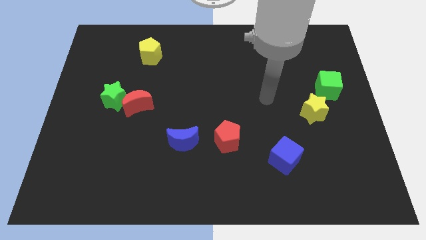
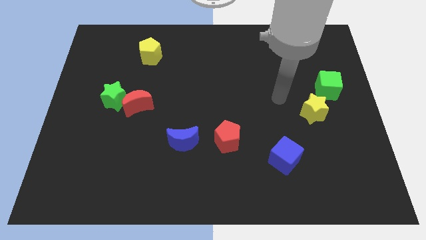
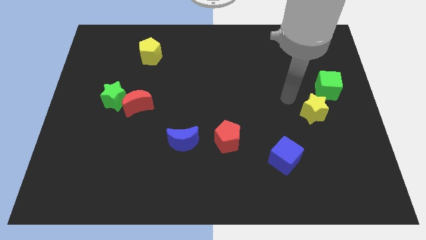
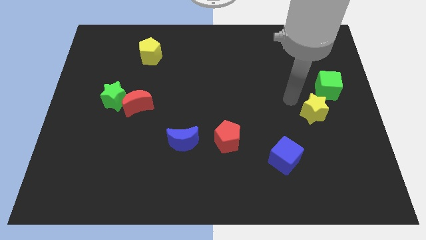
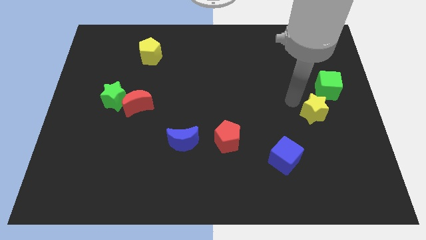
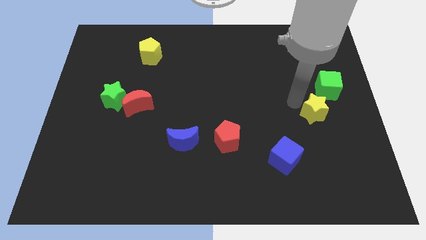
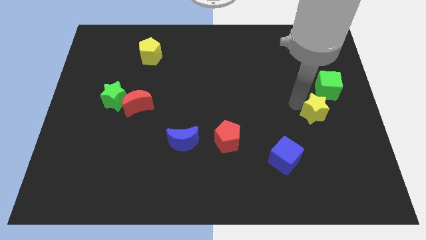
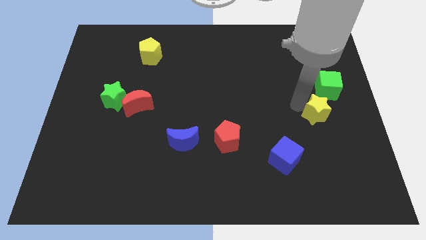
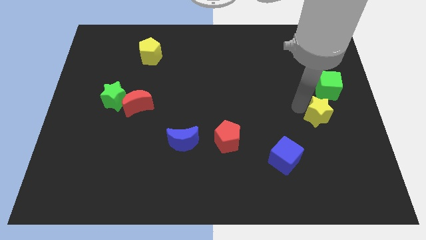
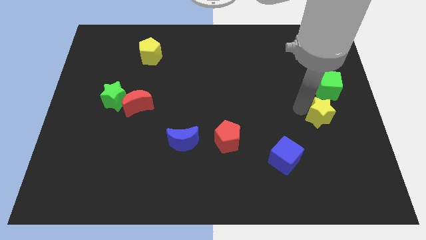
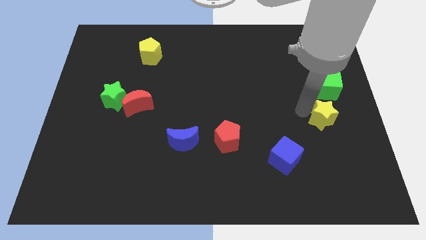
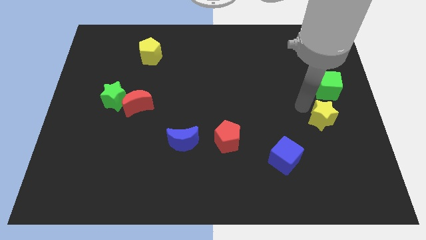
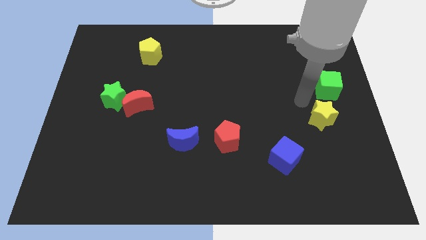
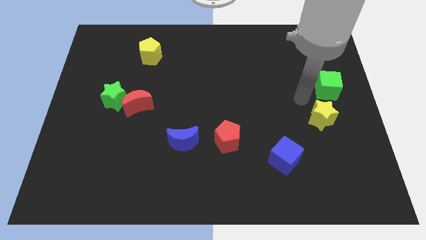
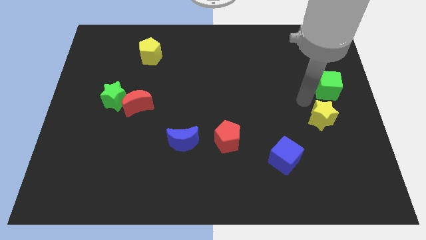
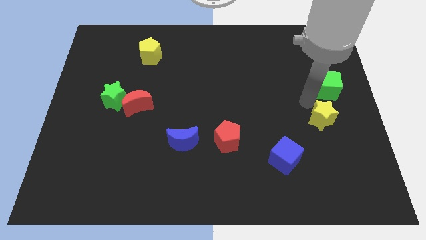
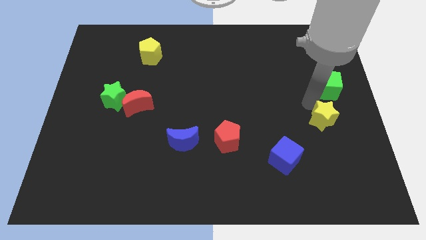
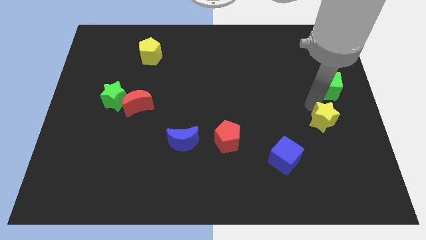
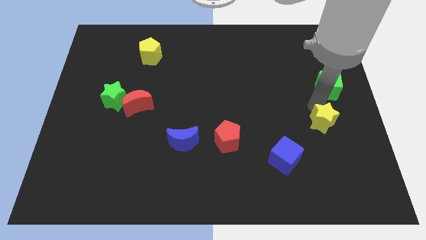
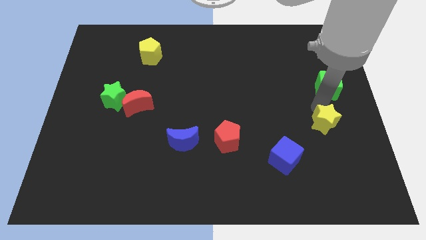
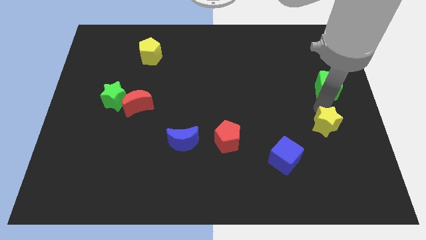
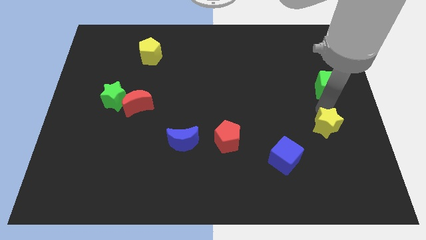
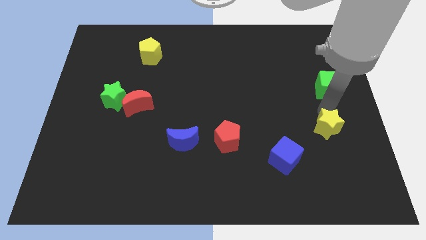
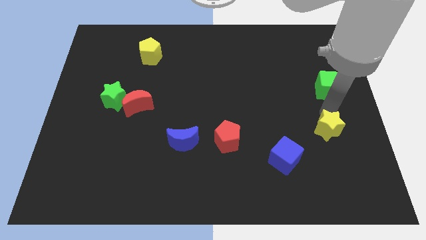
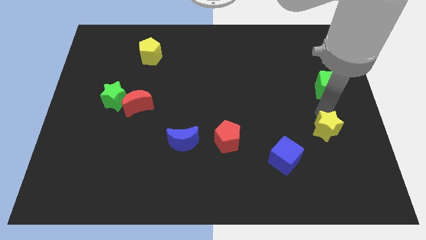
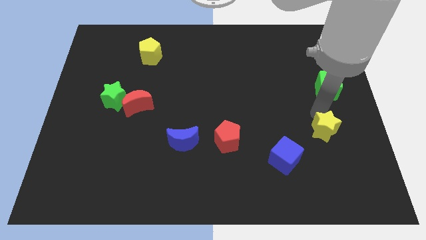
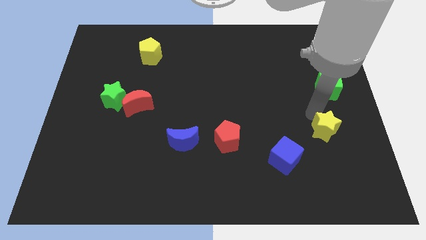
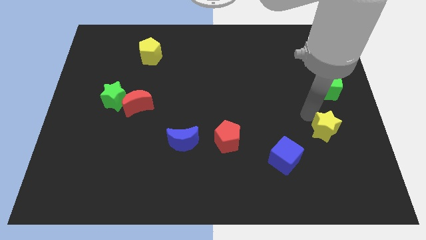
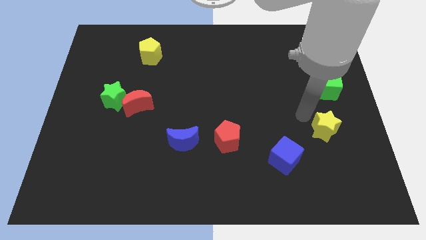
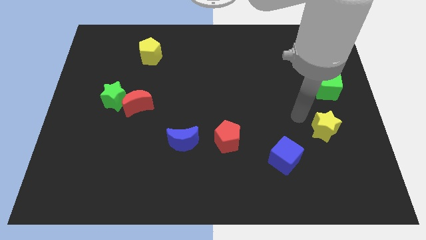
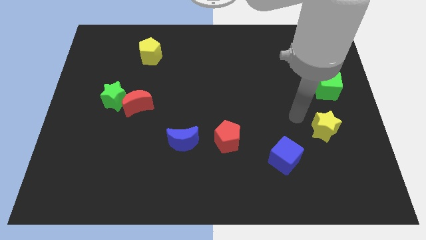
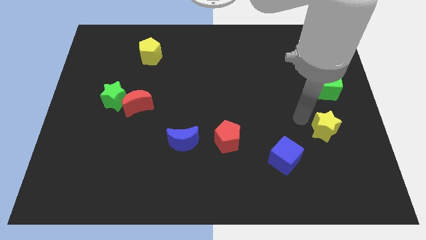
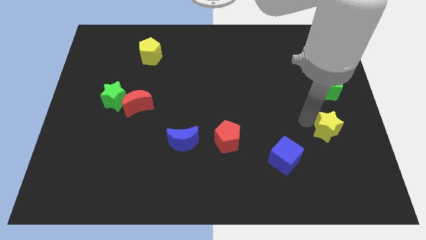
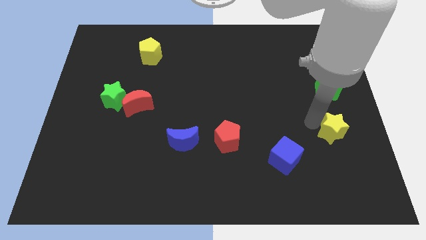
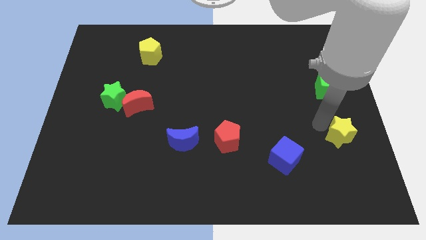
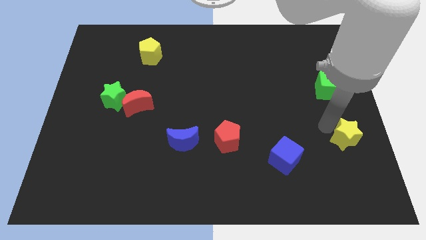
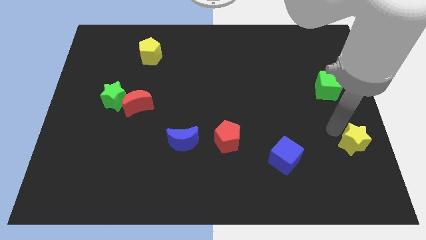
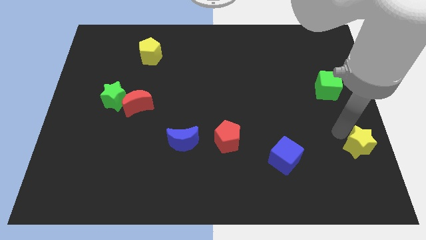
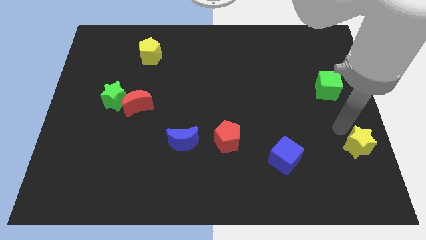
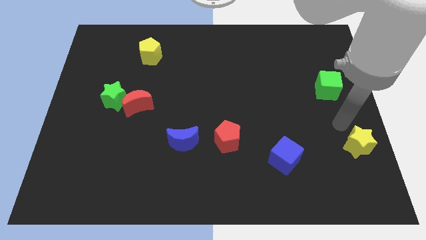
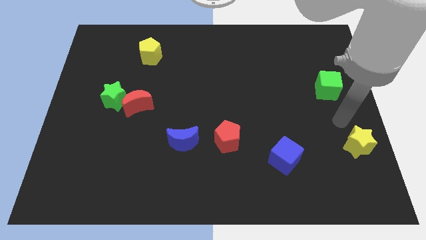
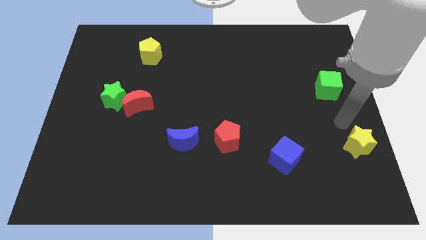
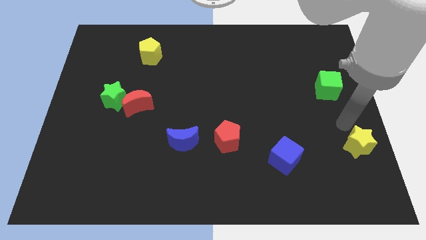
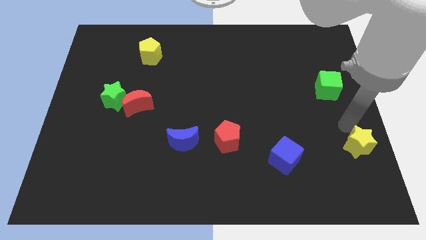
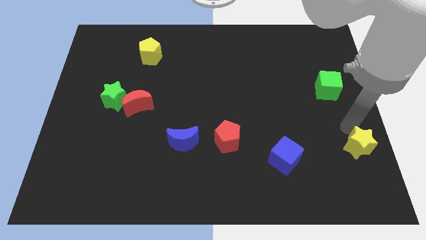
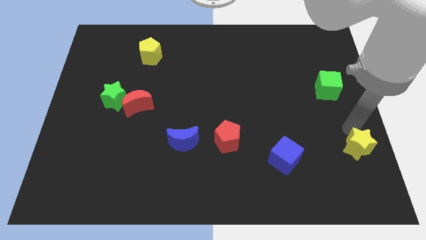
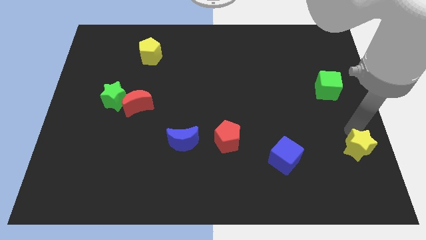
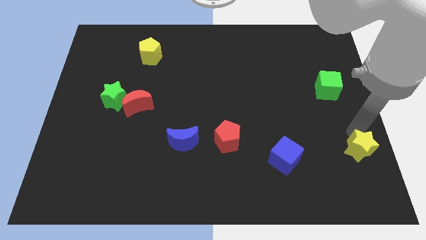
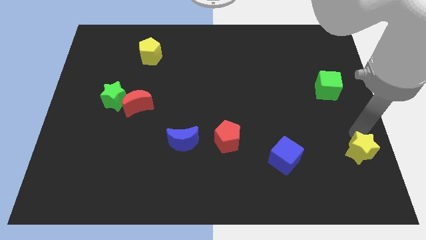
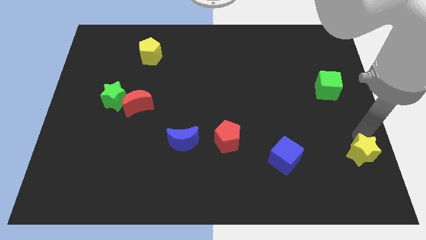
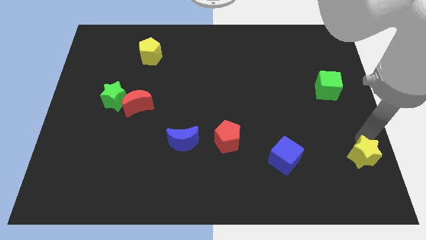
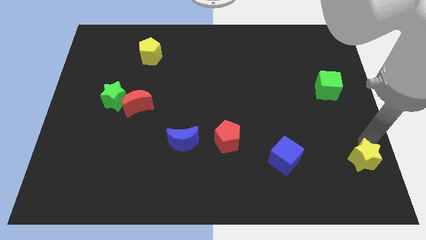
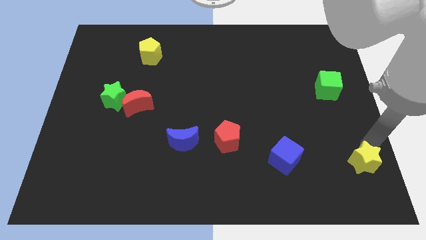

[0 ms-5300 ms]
slide the yellow star to the lower right corner

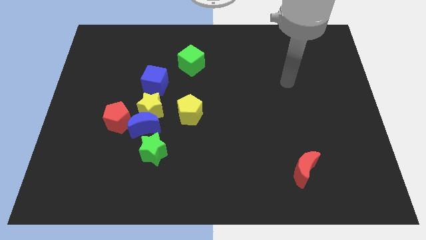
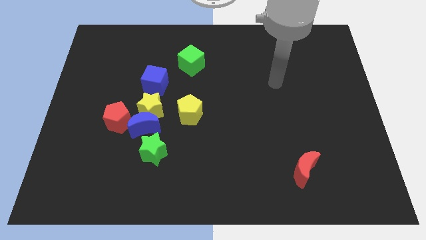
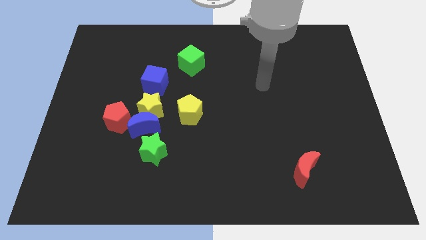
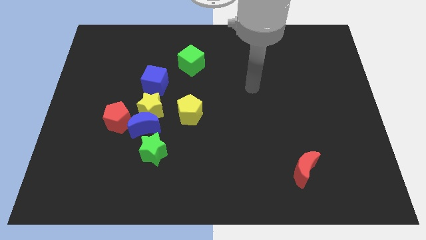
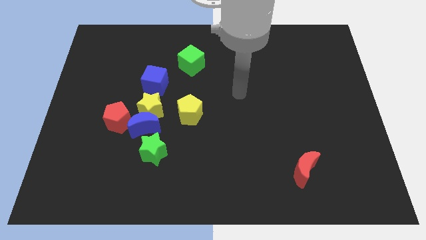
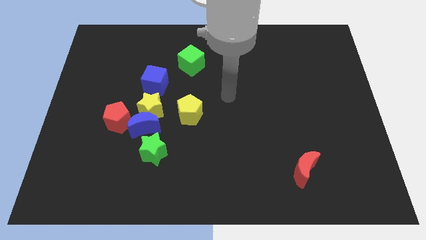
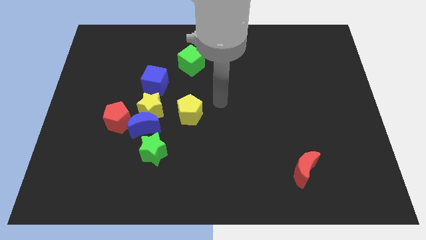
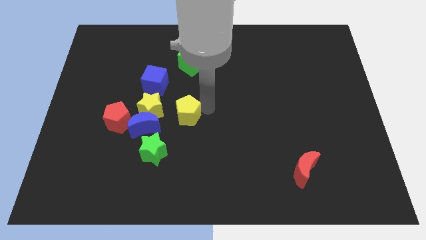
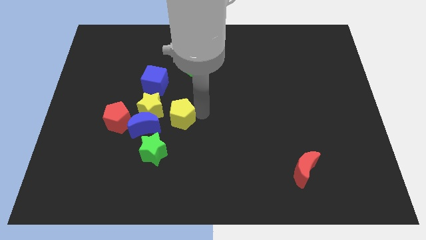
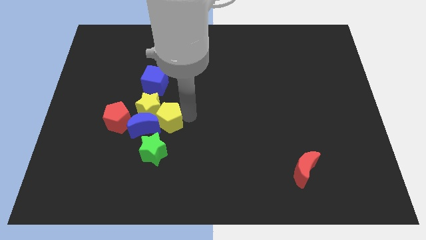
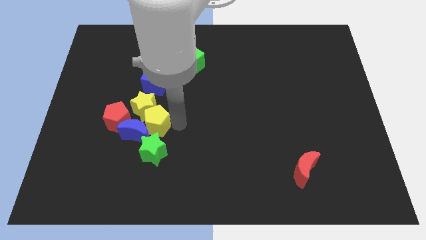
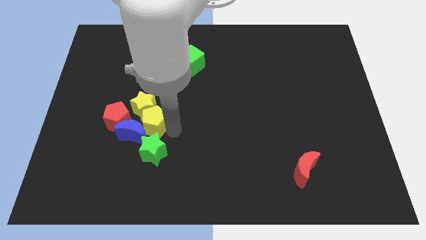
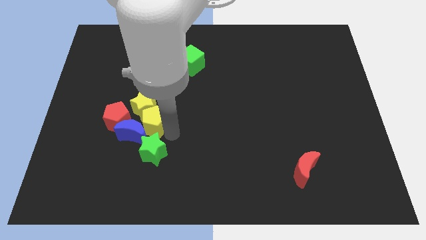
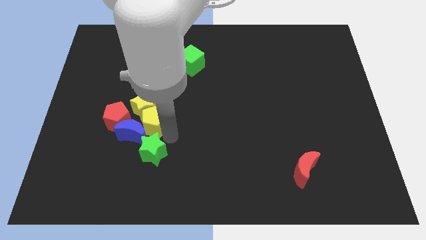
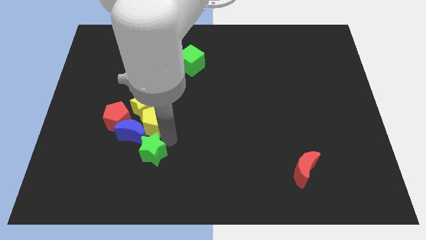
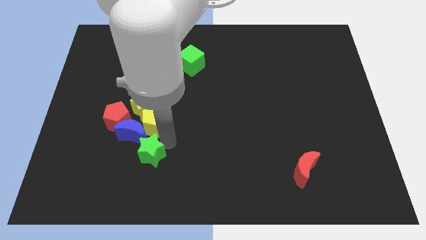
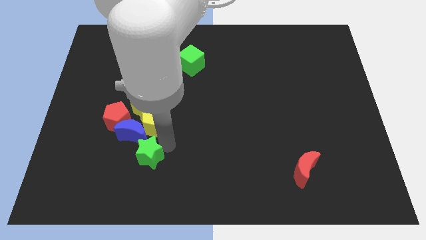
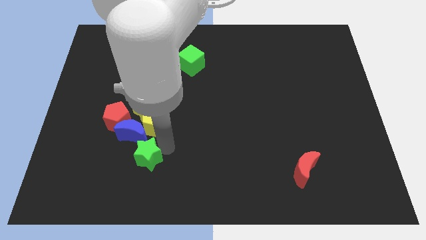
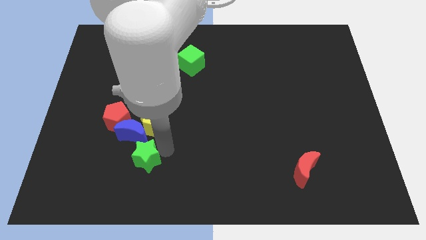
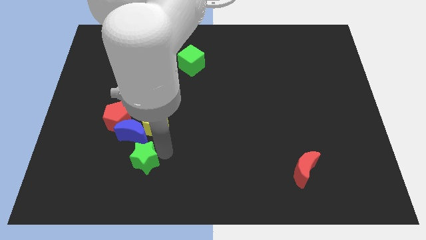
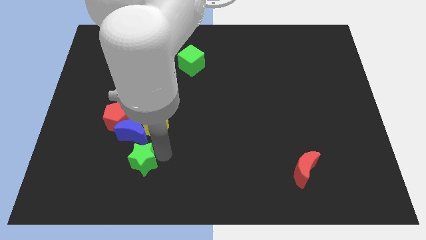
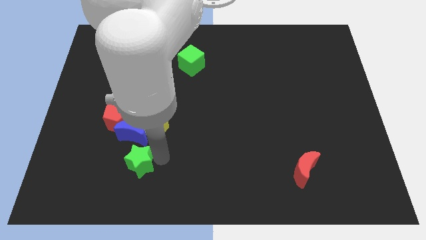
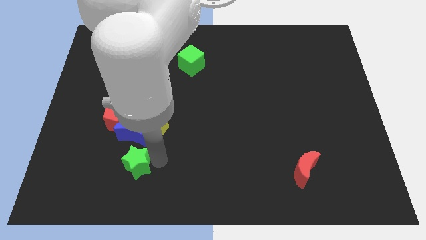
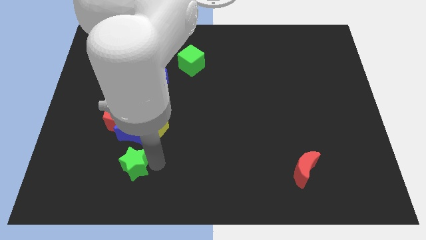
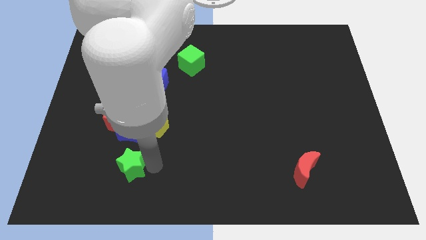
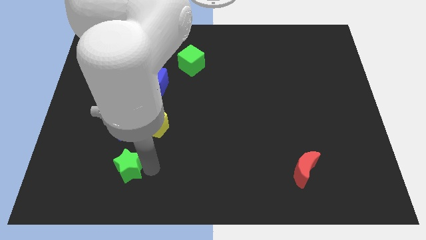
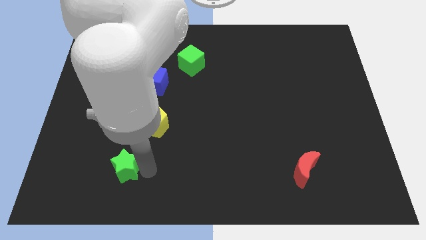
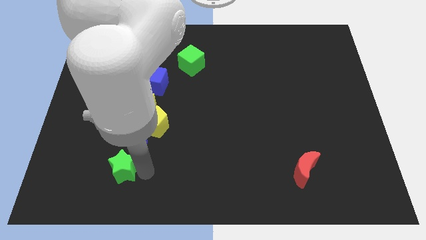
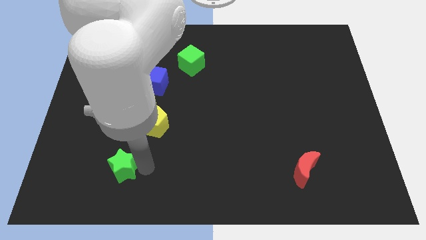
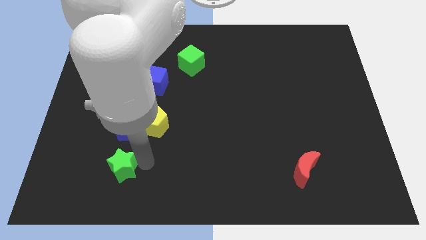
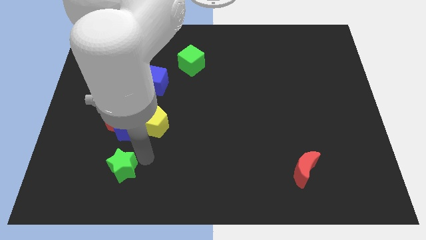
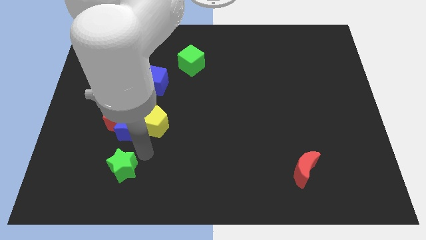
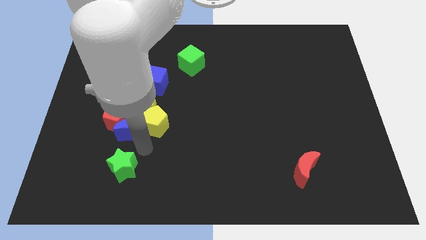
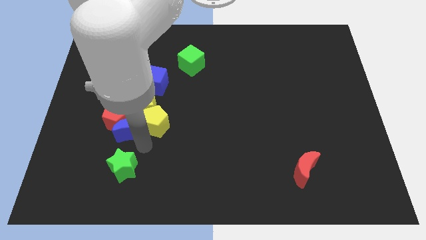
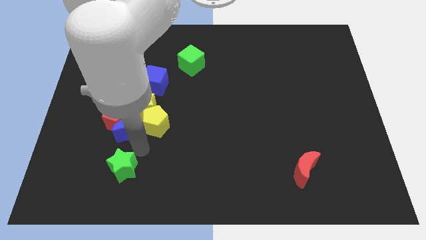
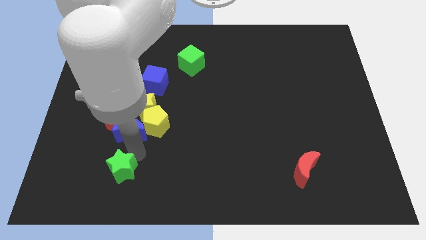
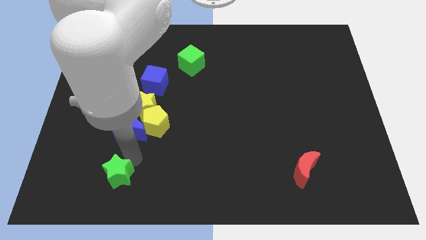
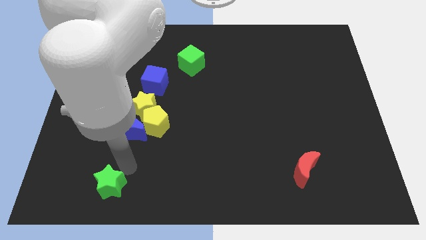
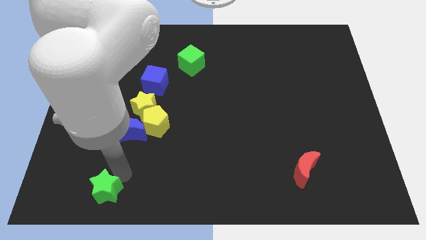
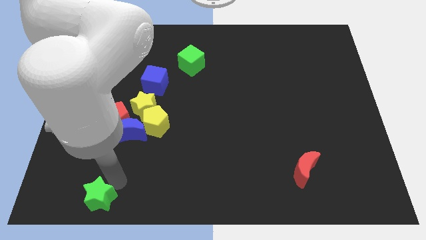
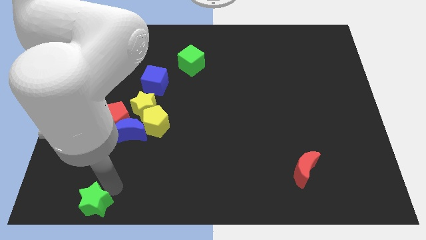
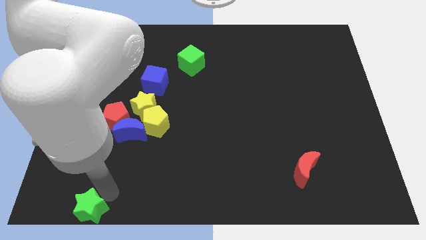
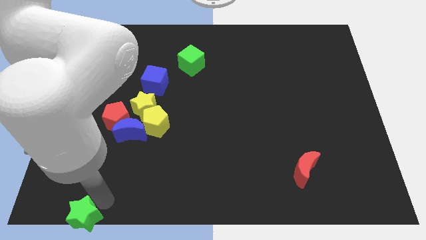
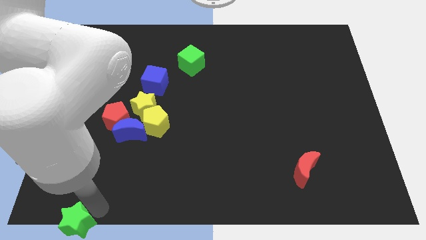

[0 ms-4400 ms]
put the green star to the lower left corner
